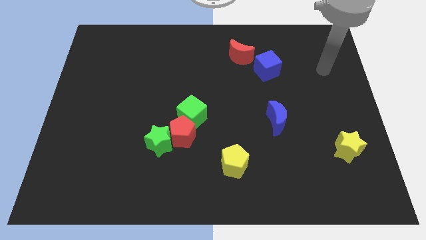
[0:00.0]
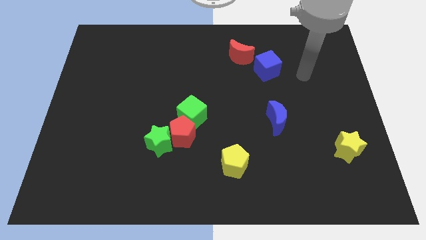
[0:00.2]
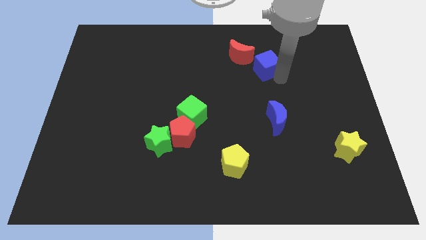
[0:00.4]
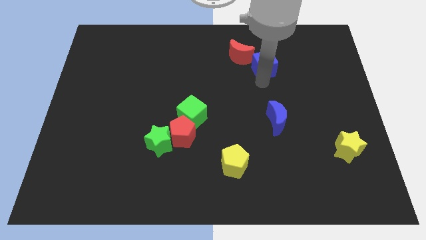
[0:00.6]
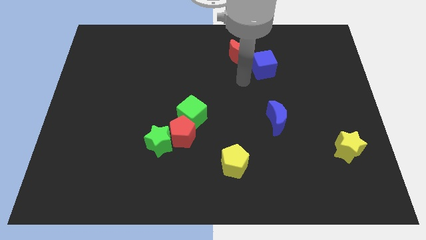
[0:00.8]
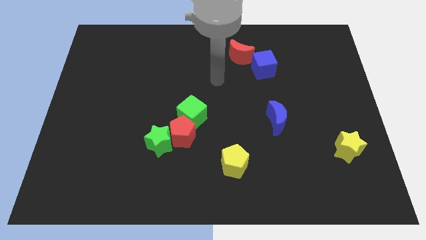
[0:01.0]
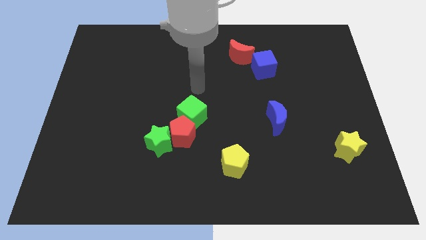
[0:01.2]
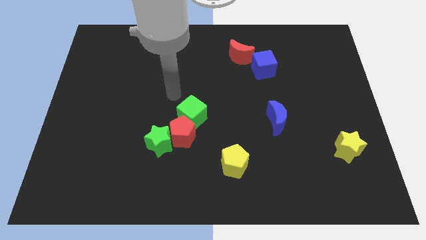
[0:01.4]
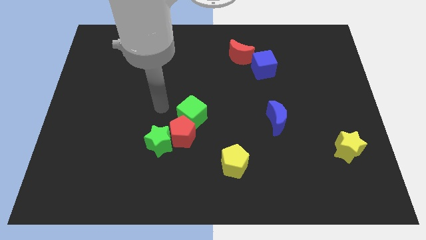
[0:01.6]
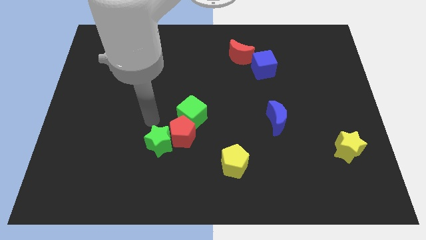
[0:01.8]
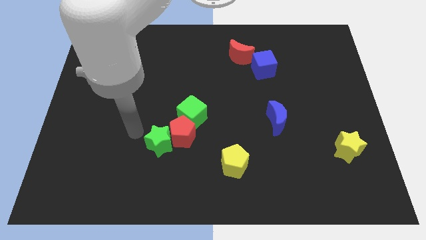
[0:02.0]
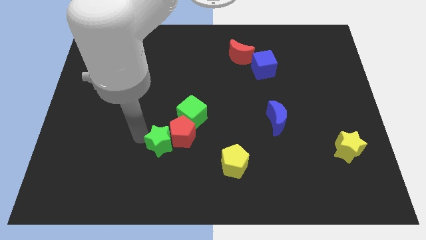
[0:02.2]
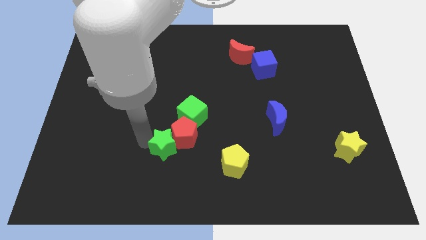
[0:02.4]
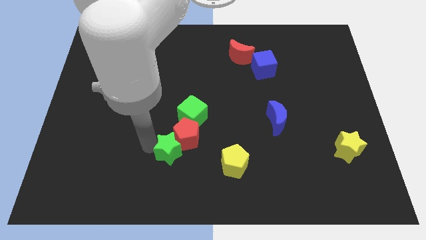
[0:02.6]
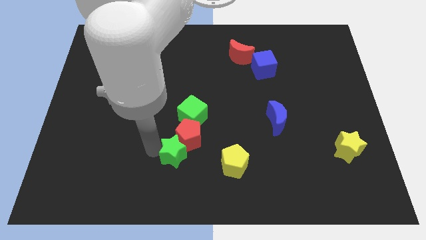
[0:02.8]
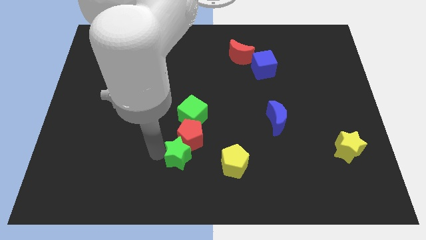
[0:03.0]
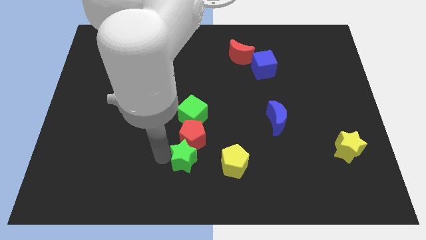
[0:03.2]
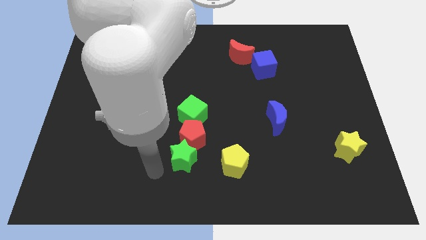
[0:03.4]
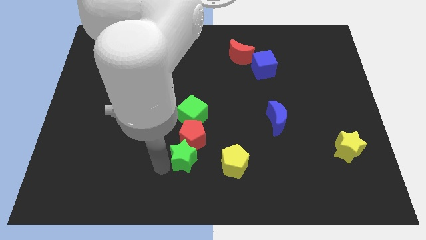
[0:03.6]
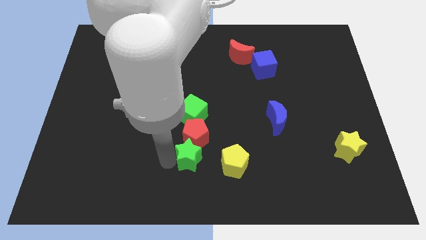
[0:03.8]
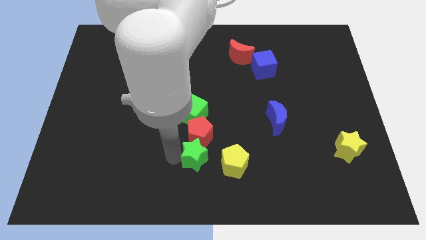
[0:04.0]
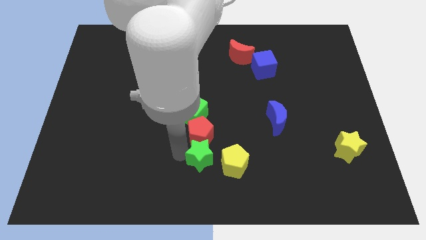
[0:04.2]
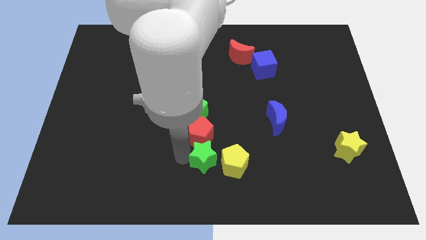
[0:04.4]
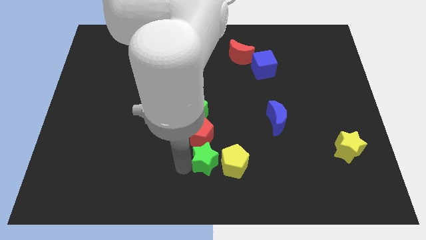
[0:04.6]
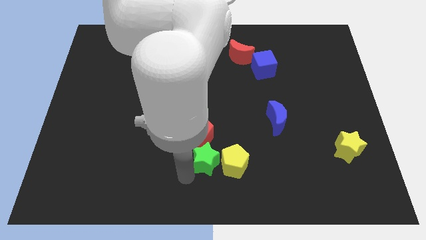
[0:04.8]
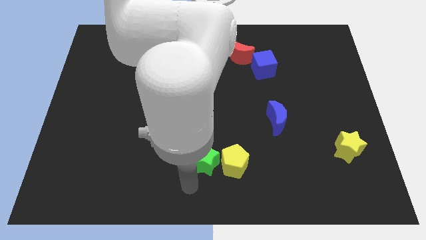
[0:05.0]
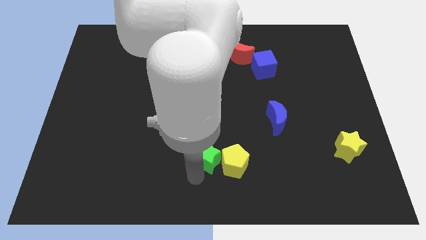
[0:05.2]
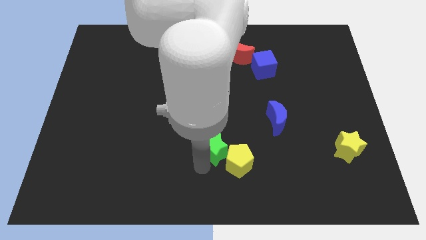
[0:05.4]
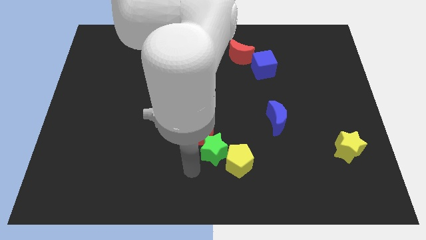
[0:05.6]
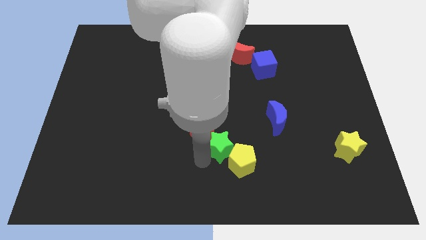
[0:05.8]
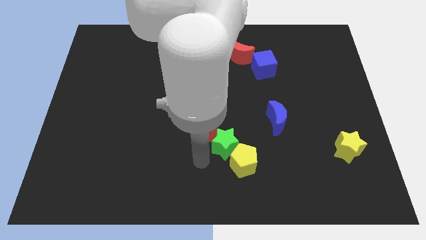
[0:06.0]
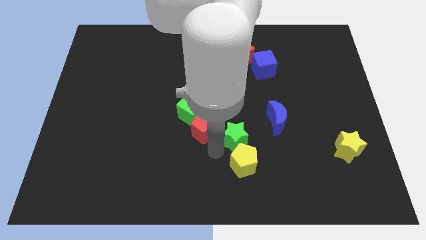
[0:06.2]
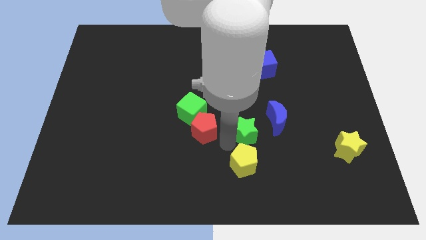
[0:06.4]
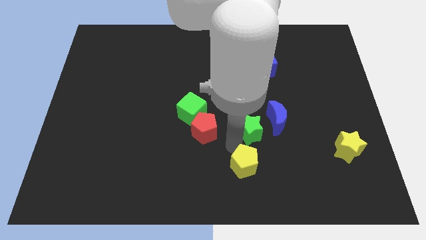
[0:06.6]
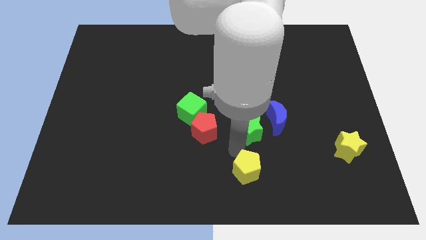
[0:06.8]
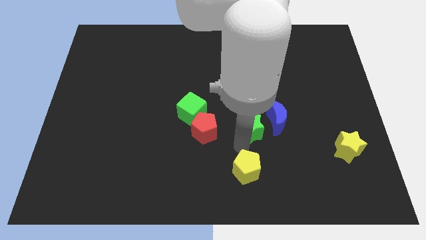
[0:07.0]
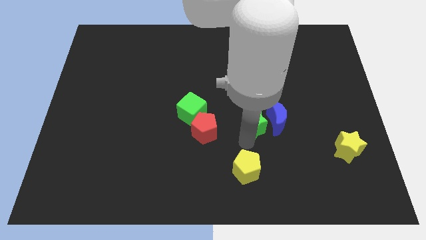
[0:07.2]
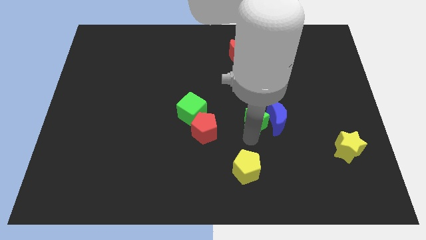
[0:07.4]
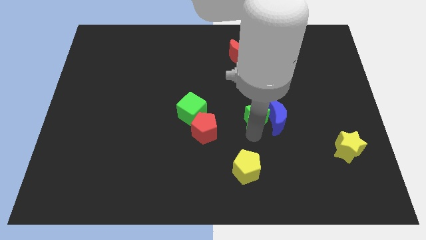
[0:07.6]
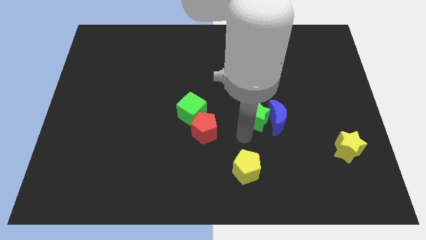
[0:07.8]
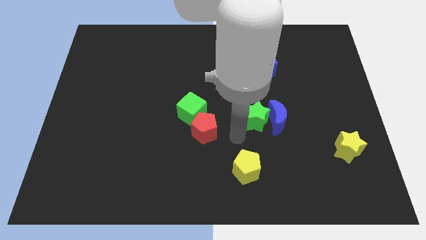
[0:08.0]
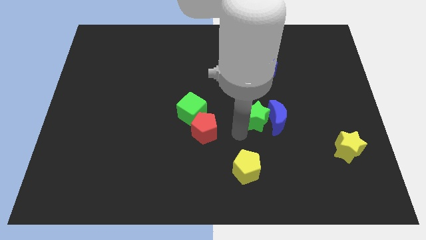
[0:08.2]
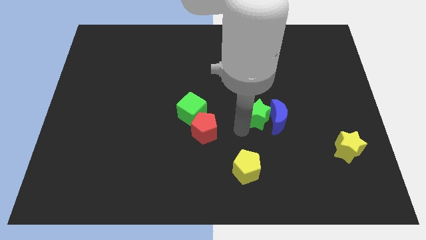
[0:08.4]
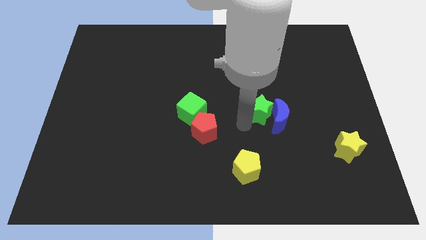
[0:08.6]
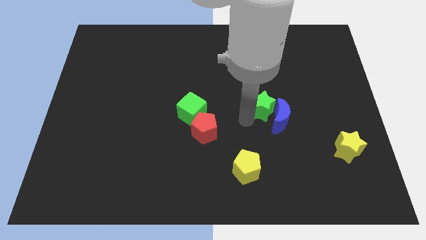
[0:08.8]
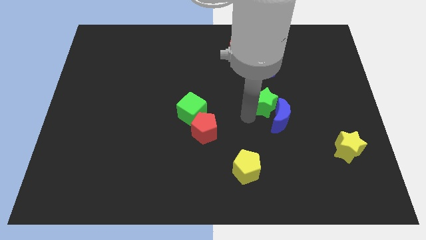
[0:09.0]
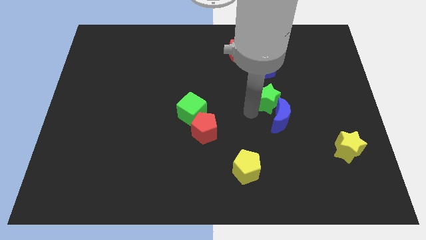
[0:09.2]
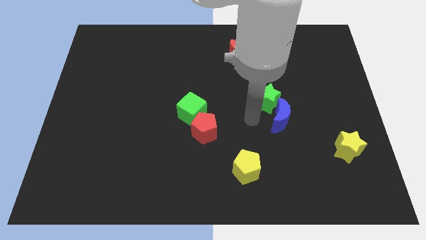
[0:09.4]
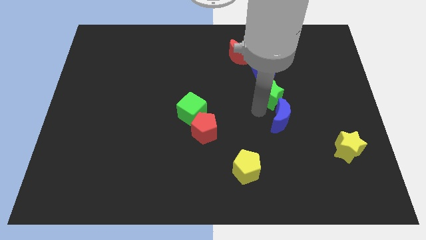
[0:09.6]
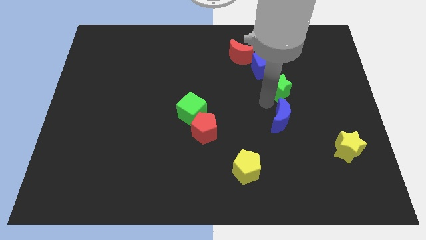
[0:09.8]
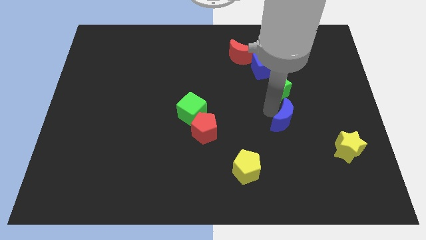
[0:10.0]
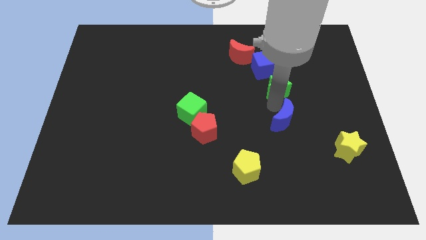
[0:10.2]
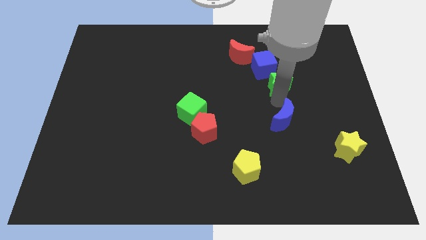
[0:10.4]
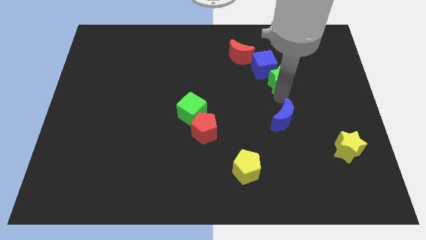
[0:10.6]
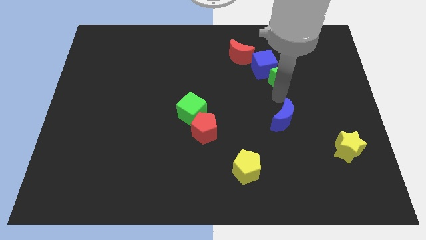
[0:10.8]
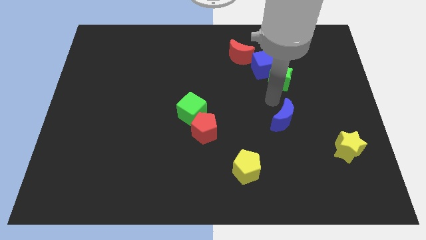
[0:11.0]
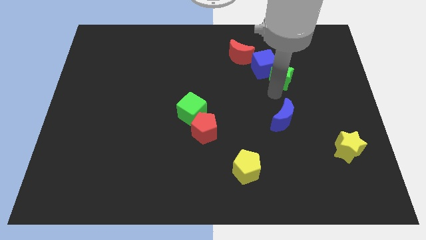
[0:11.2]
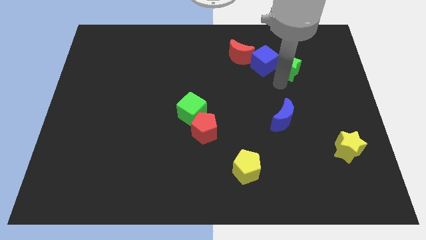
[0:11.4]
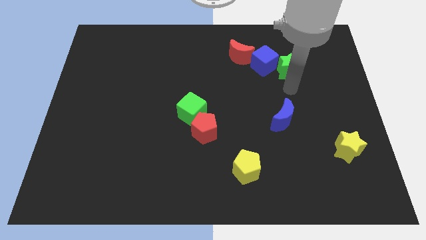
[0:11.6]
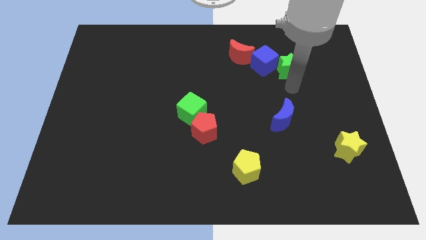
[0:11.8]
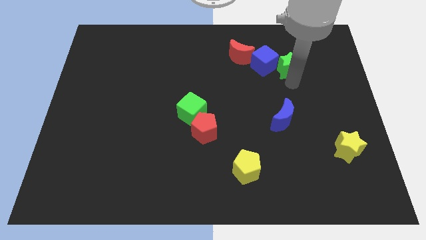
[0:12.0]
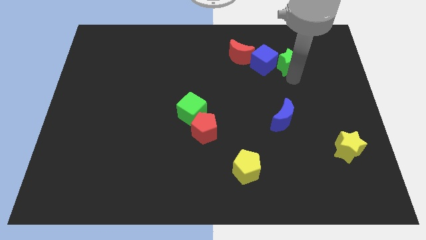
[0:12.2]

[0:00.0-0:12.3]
push the green star to the top right of the blue cube

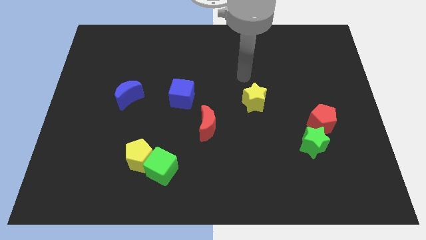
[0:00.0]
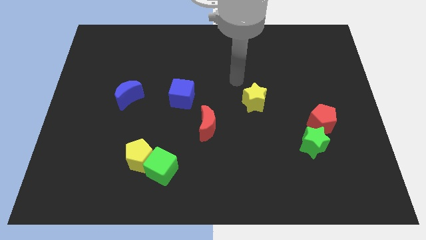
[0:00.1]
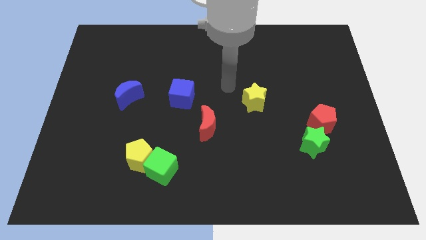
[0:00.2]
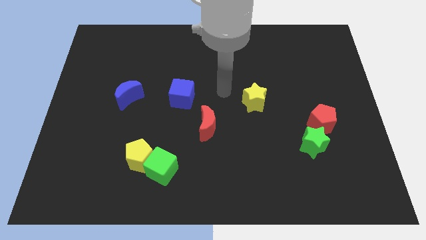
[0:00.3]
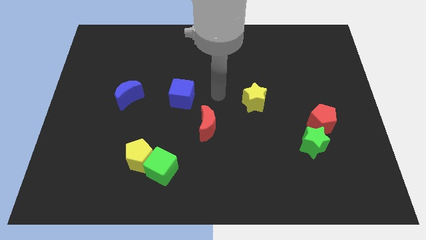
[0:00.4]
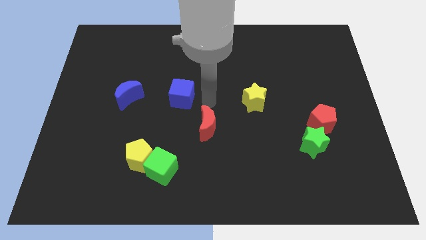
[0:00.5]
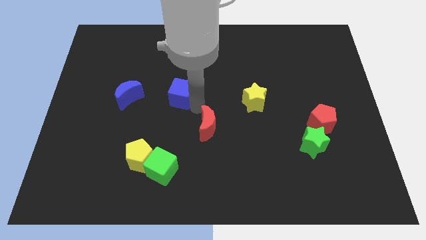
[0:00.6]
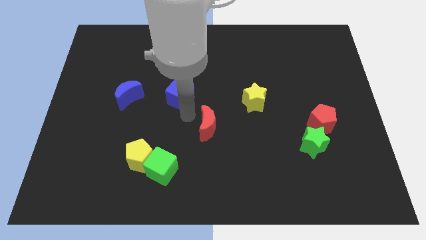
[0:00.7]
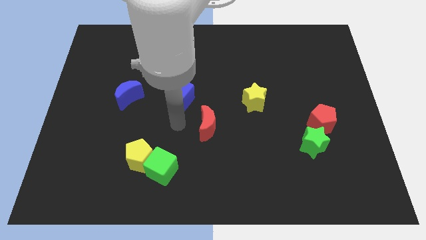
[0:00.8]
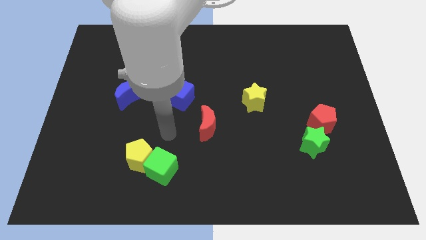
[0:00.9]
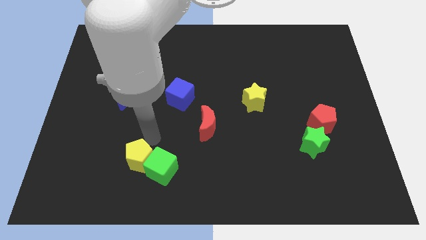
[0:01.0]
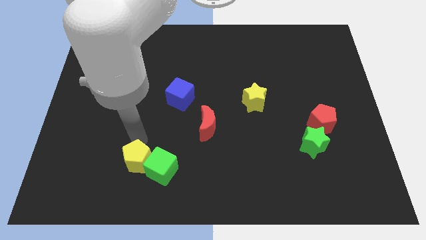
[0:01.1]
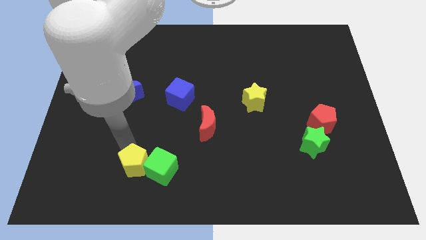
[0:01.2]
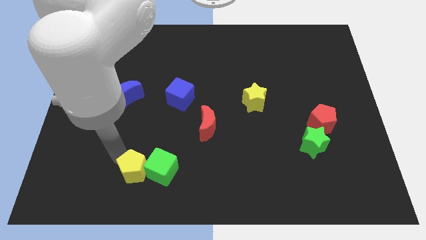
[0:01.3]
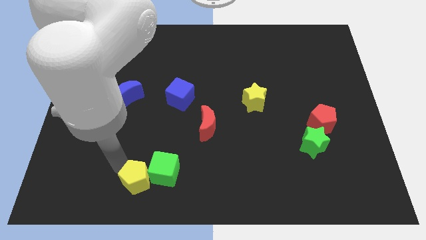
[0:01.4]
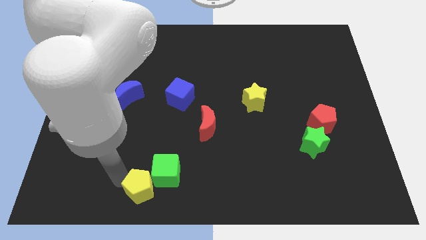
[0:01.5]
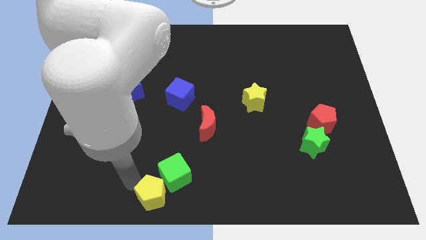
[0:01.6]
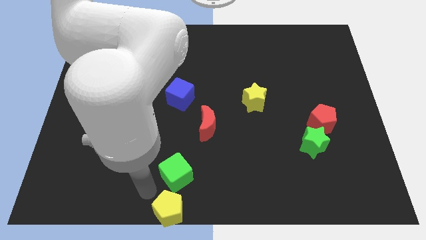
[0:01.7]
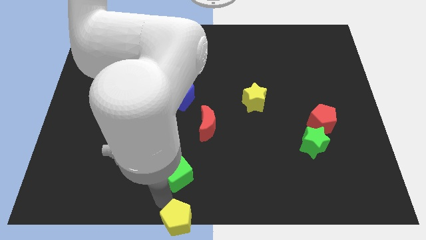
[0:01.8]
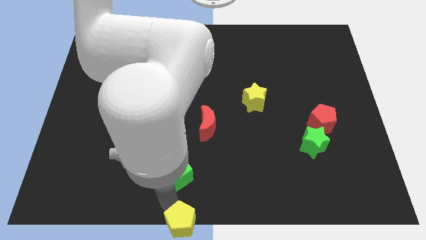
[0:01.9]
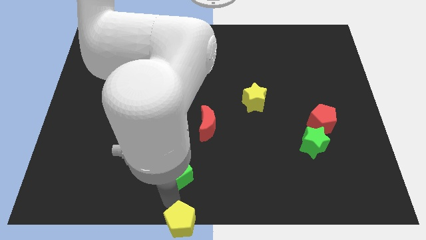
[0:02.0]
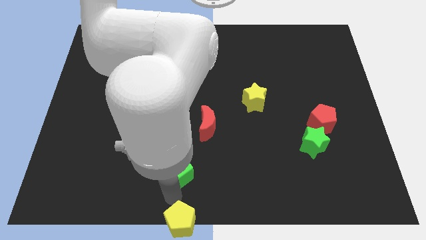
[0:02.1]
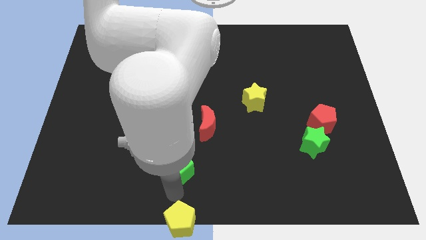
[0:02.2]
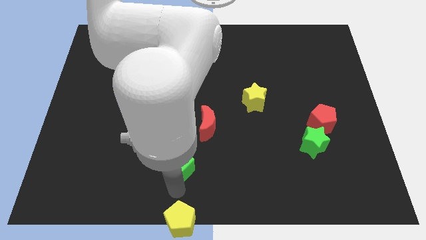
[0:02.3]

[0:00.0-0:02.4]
slide the green cube to the bottom left side of the red moon
